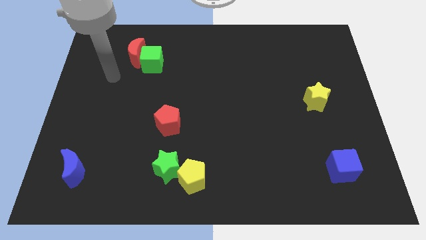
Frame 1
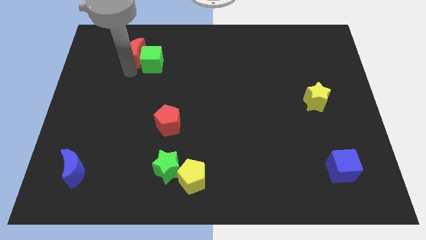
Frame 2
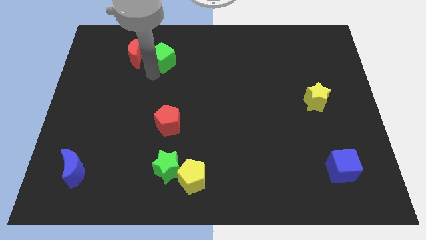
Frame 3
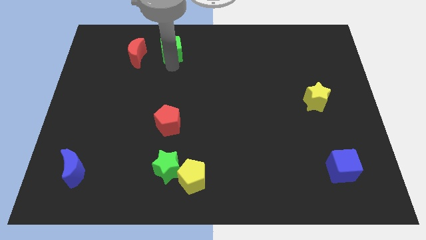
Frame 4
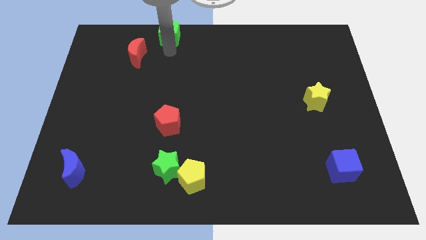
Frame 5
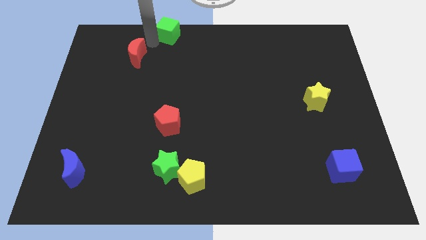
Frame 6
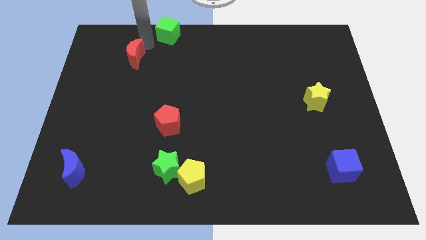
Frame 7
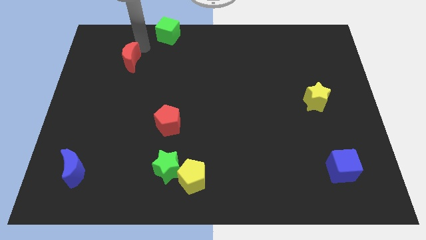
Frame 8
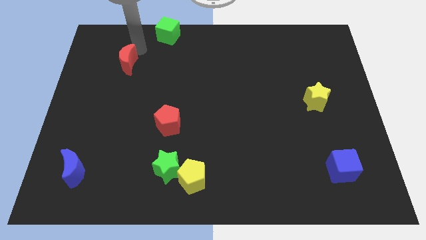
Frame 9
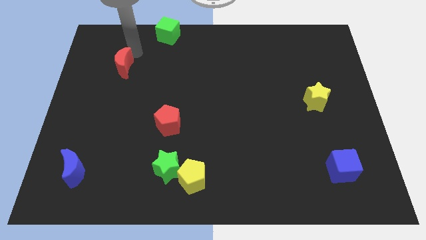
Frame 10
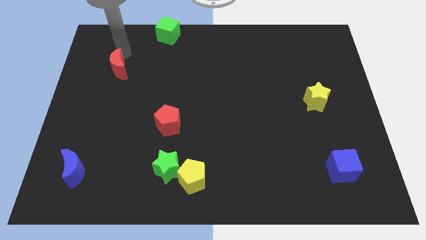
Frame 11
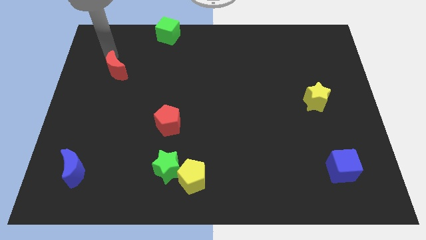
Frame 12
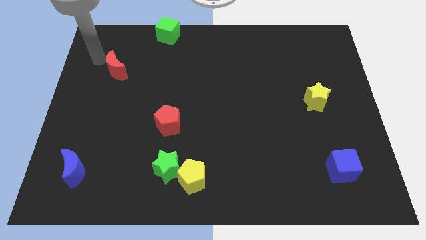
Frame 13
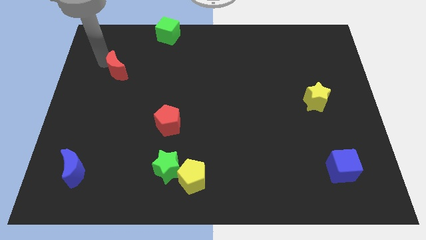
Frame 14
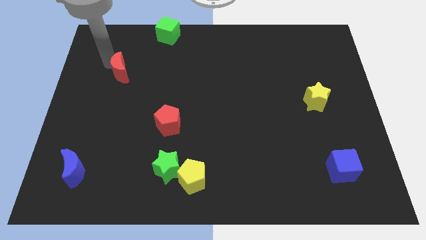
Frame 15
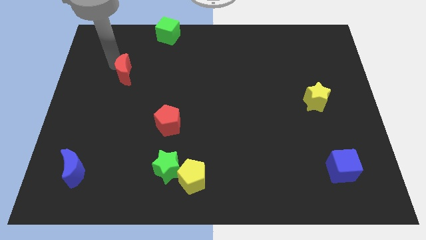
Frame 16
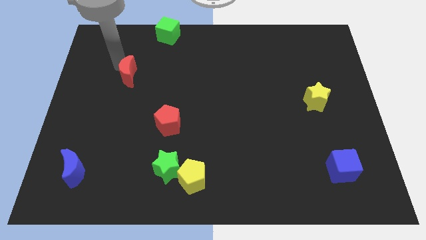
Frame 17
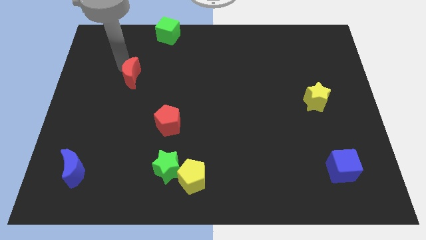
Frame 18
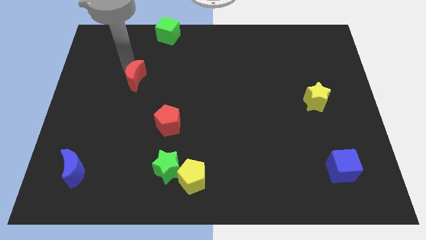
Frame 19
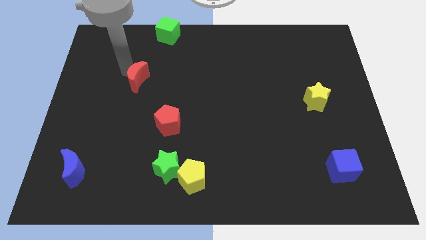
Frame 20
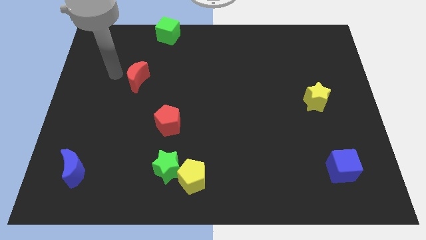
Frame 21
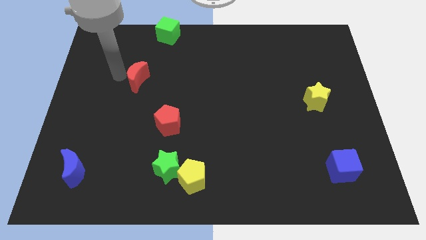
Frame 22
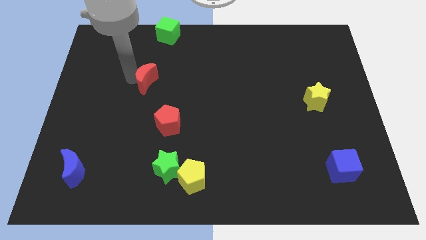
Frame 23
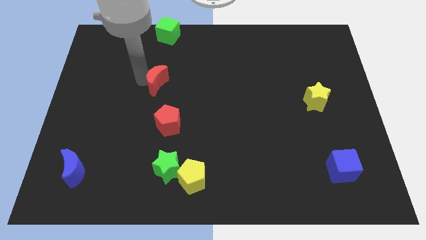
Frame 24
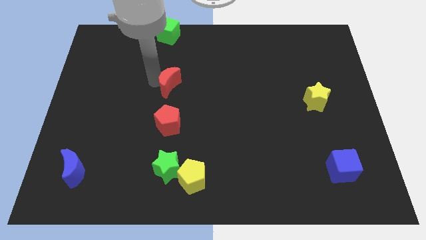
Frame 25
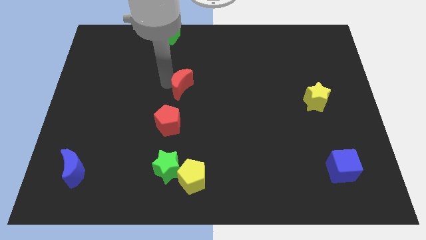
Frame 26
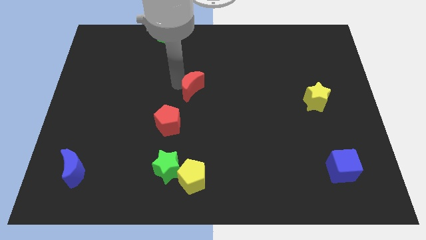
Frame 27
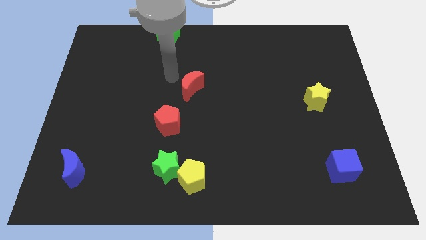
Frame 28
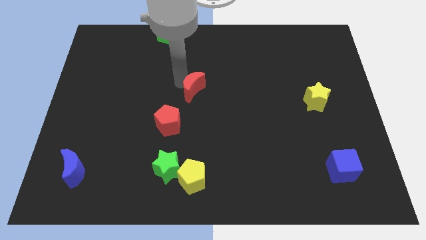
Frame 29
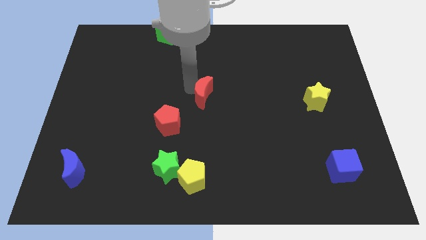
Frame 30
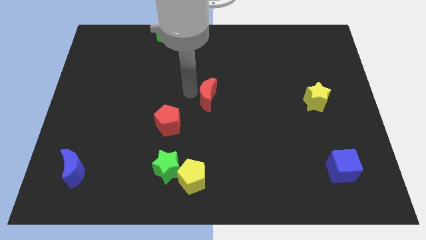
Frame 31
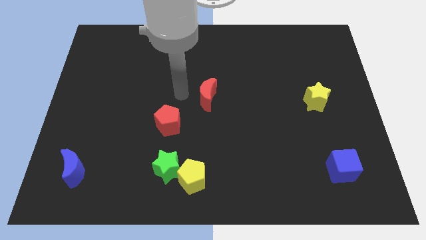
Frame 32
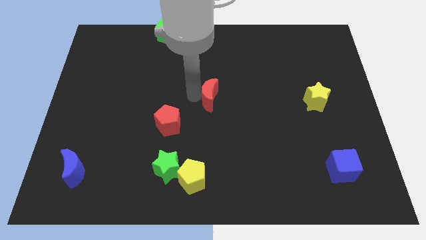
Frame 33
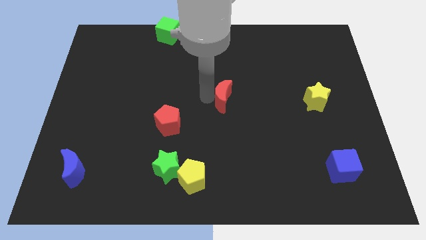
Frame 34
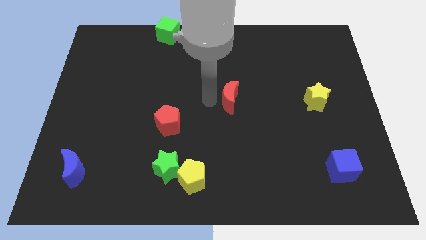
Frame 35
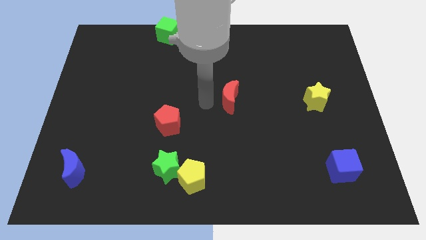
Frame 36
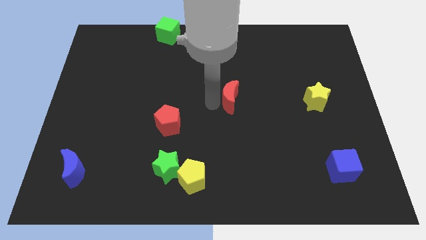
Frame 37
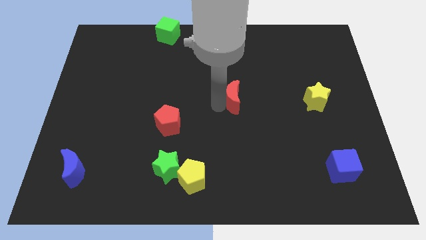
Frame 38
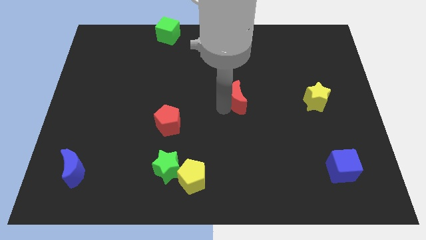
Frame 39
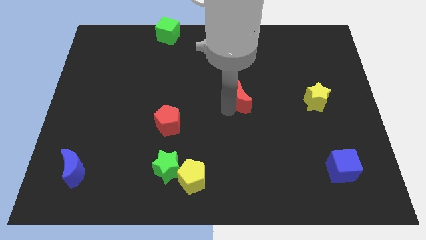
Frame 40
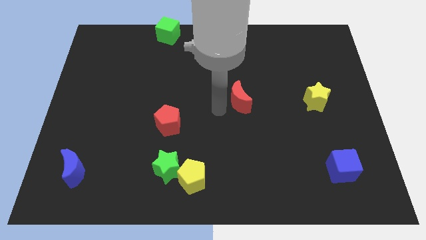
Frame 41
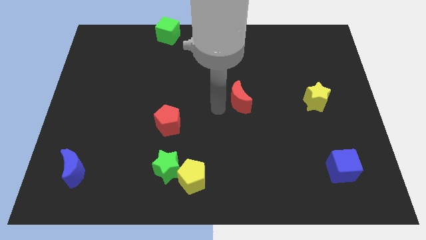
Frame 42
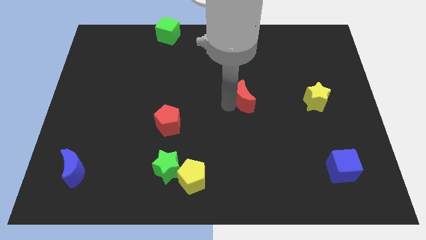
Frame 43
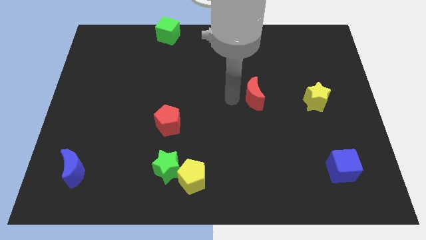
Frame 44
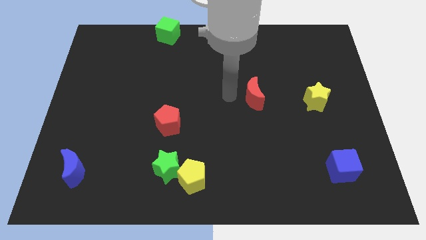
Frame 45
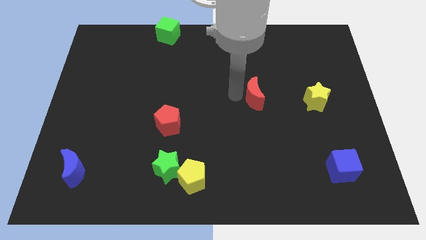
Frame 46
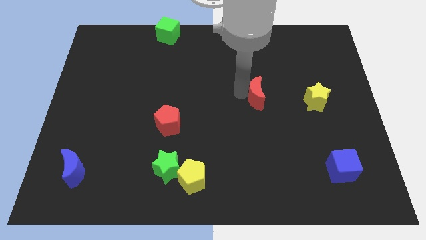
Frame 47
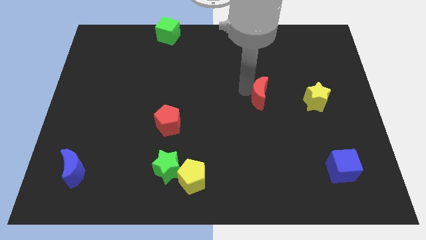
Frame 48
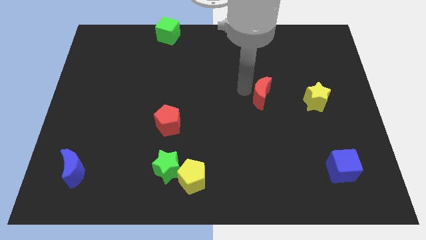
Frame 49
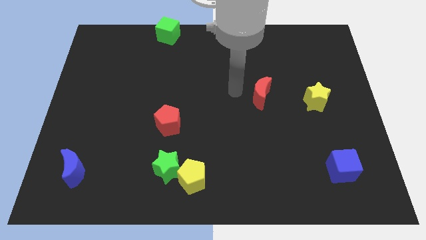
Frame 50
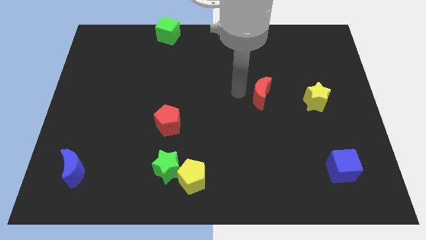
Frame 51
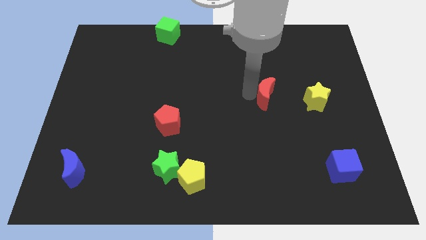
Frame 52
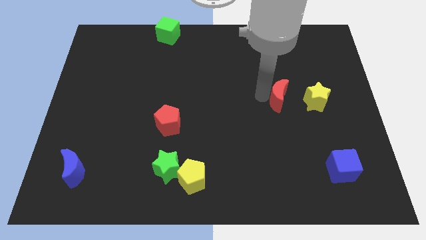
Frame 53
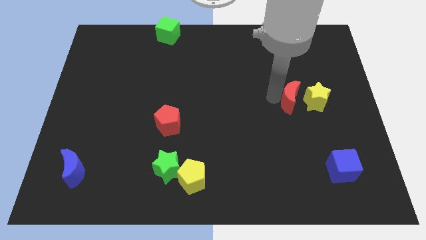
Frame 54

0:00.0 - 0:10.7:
put the red moon towards the yellow star

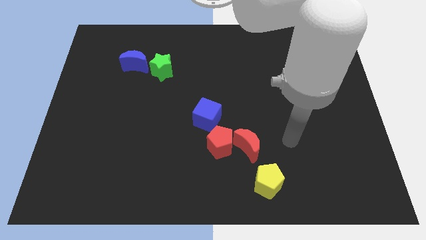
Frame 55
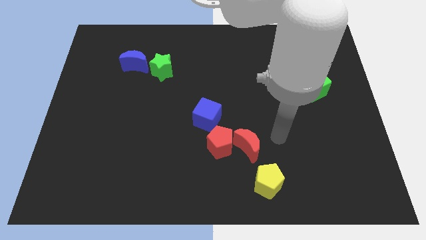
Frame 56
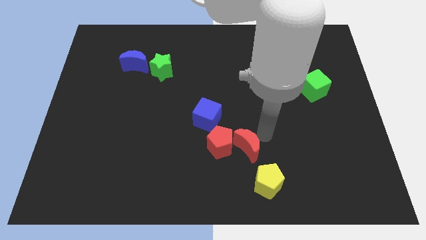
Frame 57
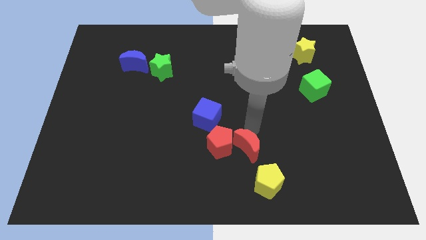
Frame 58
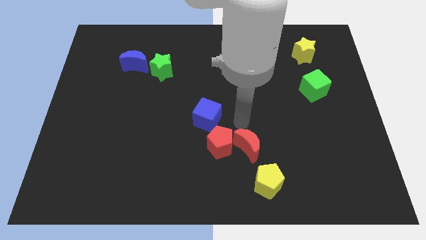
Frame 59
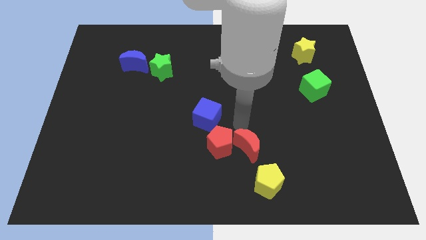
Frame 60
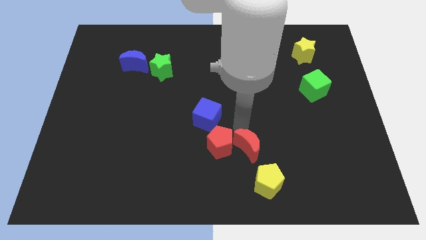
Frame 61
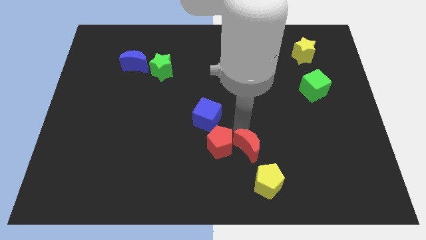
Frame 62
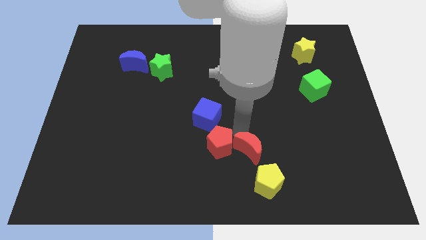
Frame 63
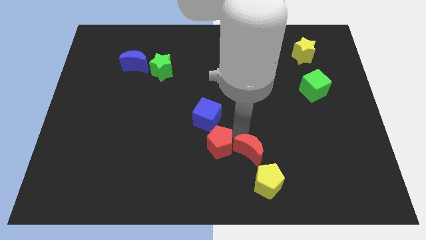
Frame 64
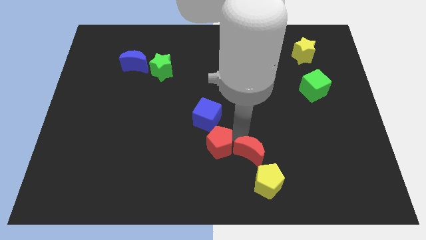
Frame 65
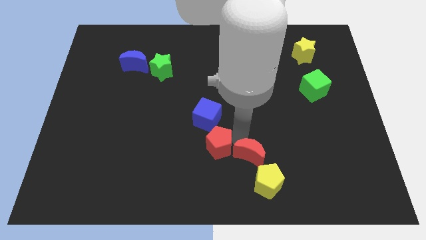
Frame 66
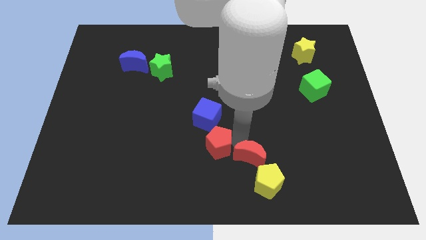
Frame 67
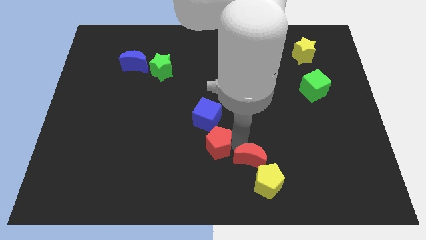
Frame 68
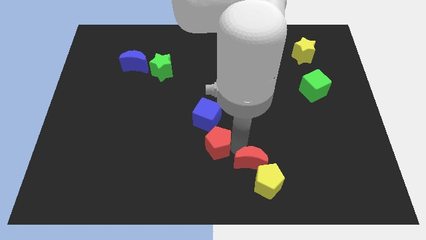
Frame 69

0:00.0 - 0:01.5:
put the red moon towards the yellow pentagon
